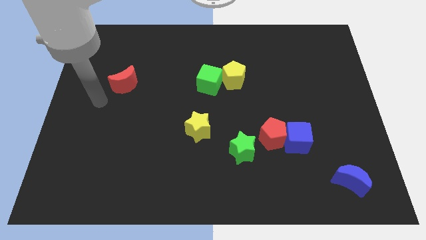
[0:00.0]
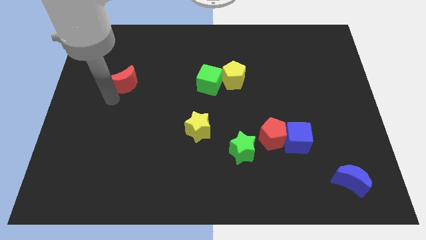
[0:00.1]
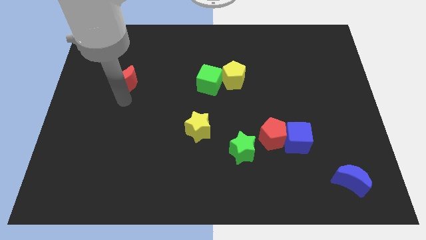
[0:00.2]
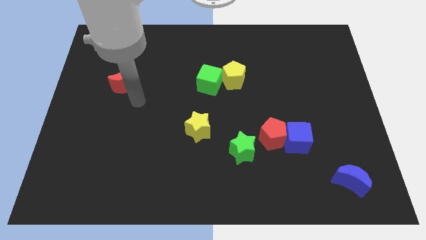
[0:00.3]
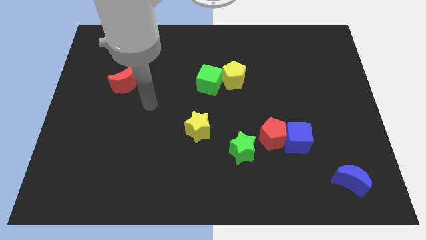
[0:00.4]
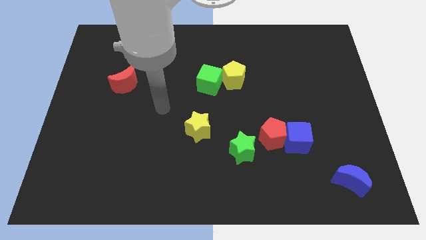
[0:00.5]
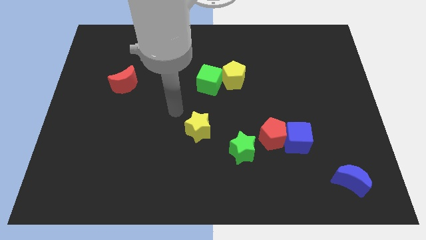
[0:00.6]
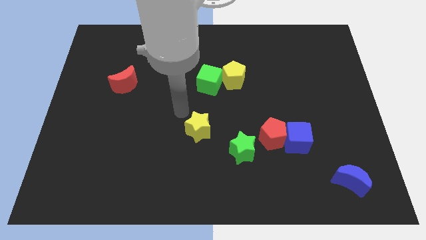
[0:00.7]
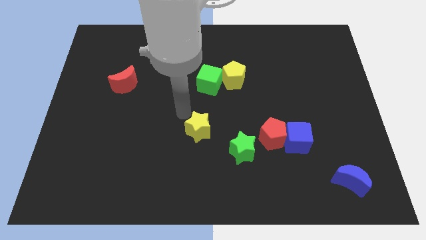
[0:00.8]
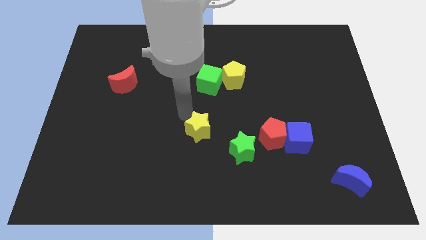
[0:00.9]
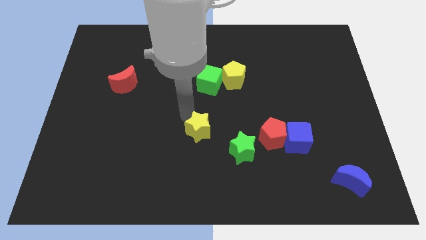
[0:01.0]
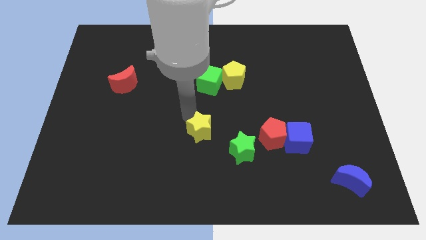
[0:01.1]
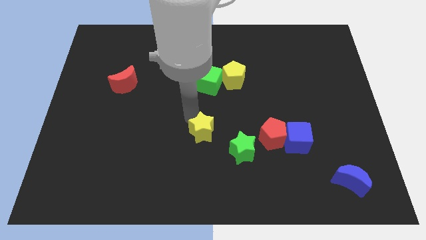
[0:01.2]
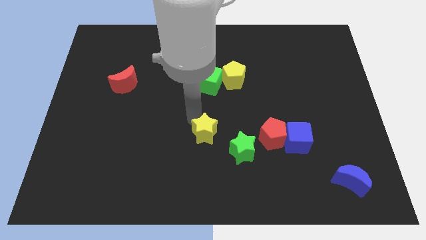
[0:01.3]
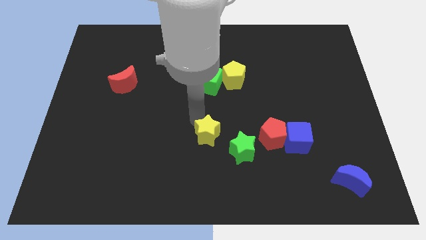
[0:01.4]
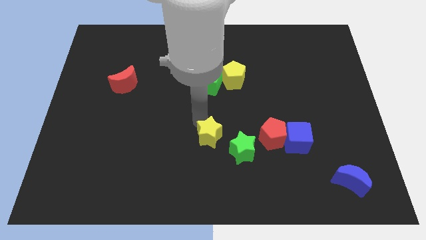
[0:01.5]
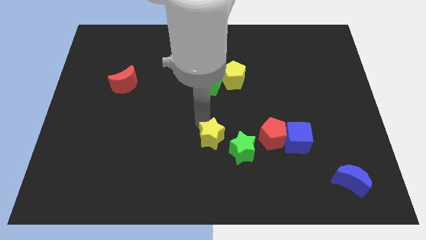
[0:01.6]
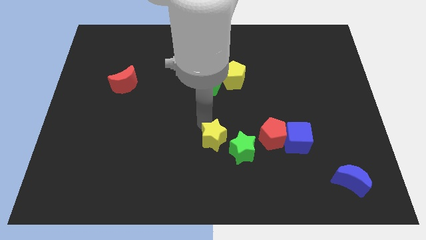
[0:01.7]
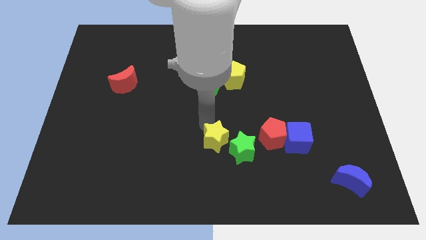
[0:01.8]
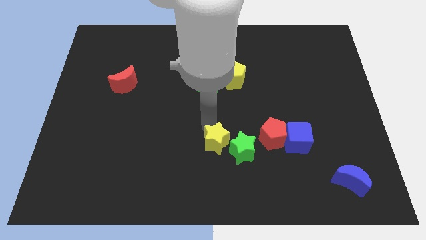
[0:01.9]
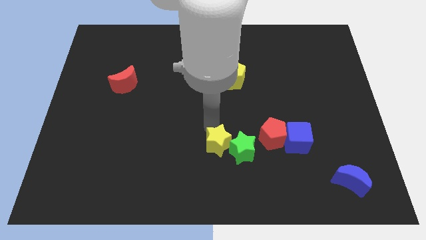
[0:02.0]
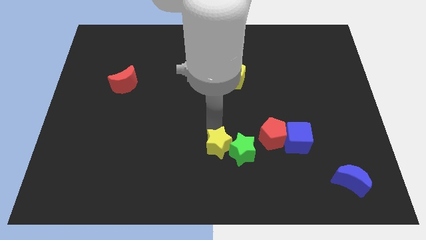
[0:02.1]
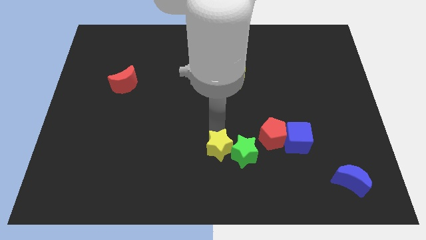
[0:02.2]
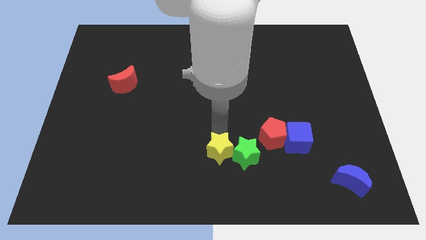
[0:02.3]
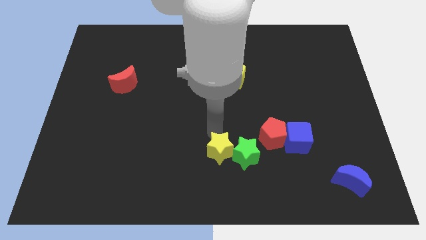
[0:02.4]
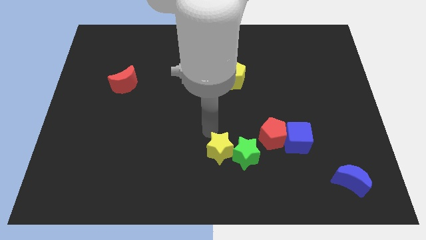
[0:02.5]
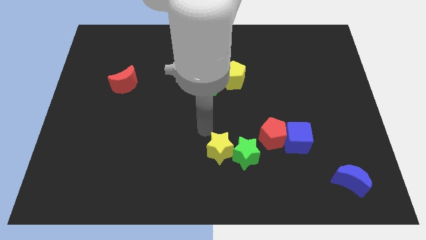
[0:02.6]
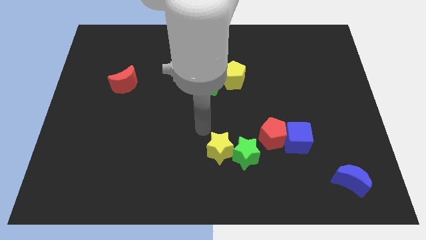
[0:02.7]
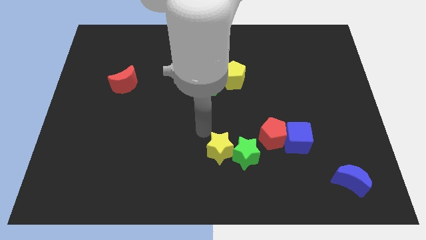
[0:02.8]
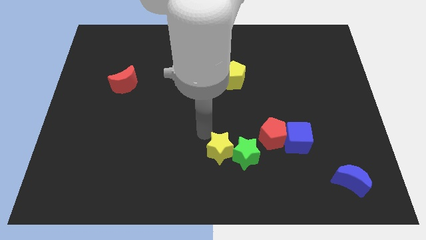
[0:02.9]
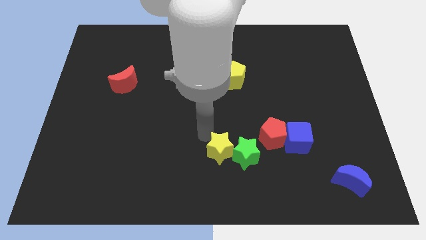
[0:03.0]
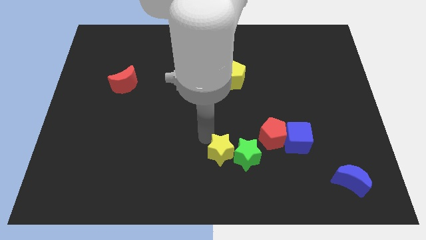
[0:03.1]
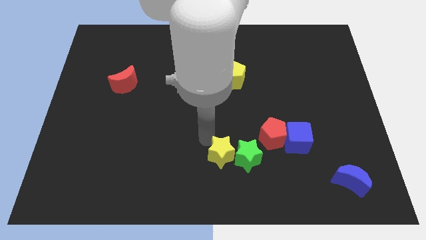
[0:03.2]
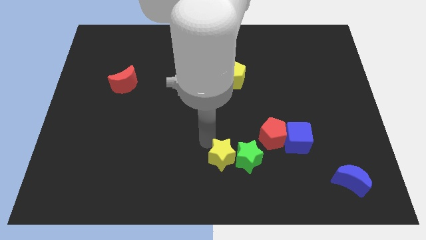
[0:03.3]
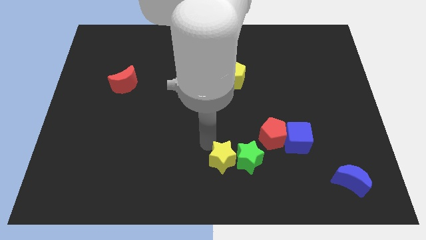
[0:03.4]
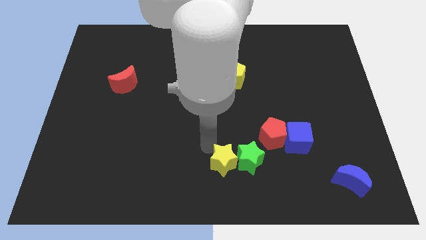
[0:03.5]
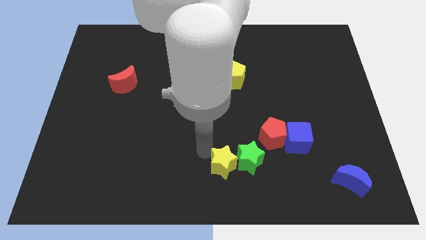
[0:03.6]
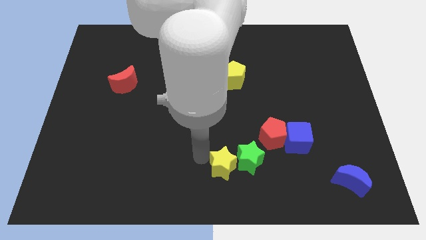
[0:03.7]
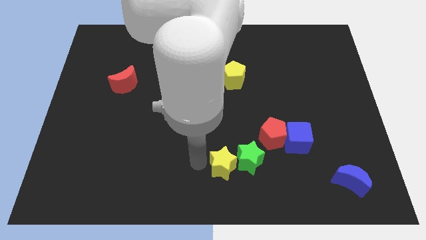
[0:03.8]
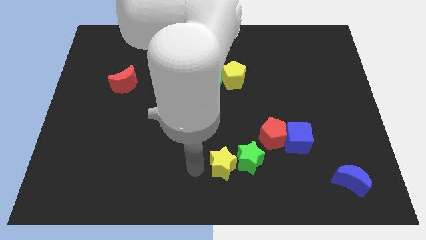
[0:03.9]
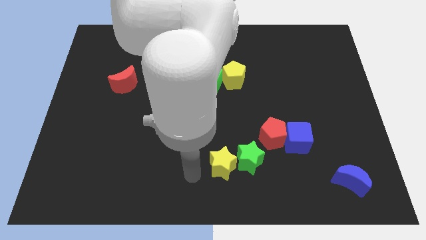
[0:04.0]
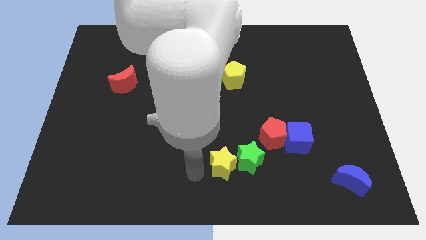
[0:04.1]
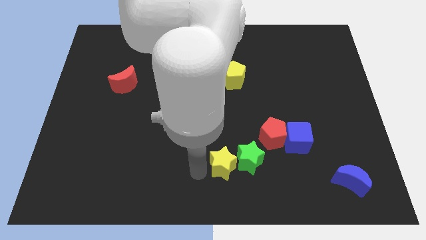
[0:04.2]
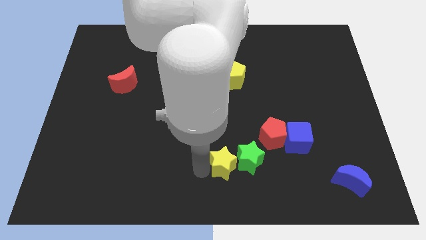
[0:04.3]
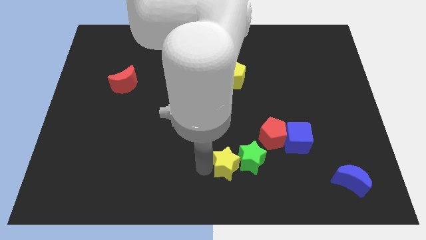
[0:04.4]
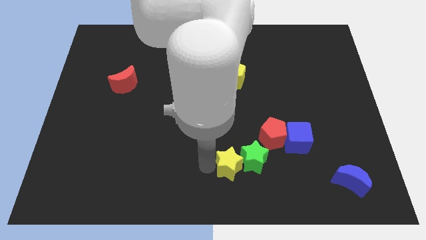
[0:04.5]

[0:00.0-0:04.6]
put the yellow star to the bottom left side of the red pentagon

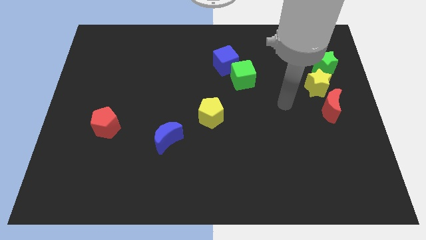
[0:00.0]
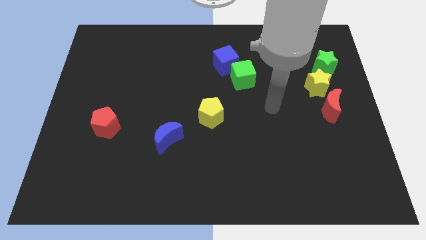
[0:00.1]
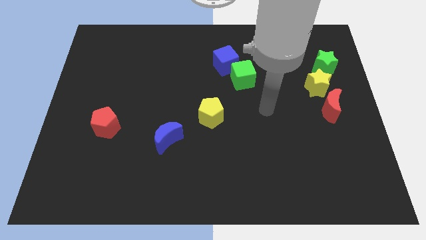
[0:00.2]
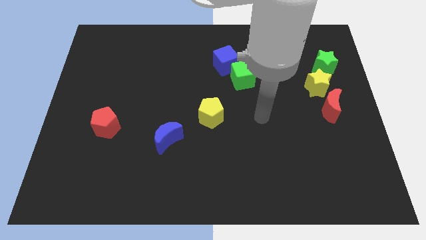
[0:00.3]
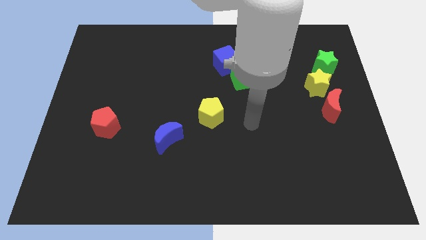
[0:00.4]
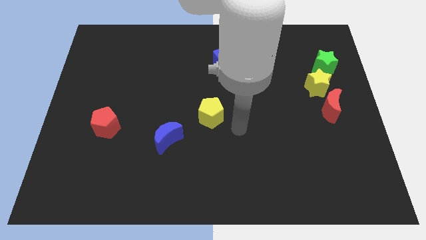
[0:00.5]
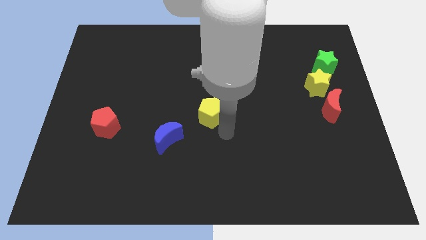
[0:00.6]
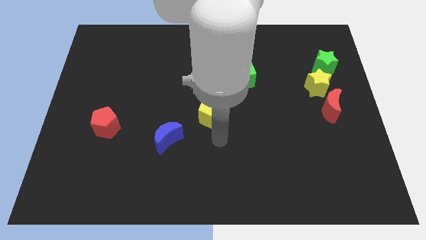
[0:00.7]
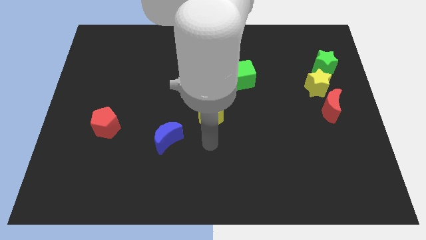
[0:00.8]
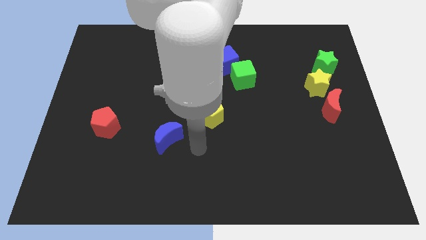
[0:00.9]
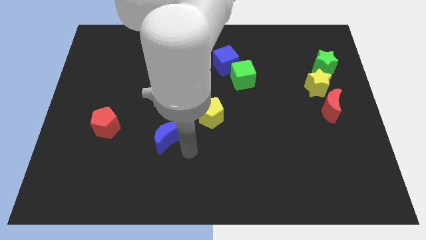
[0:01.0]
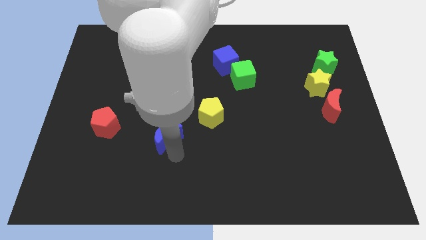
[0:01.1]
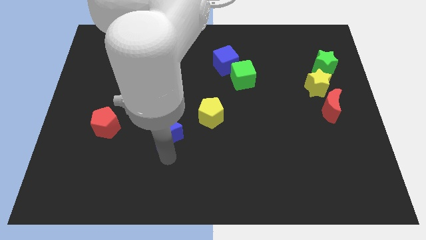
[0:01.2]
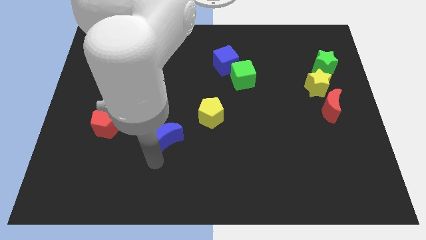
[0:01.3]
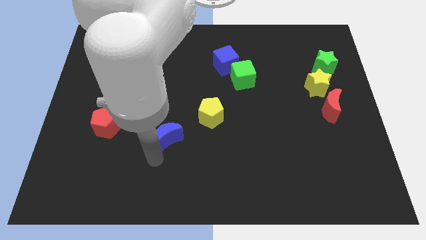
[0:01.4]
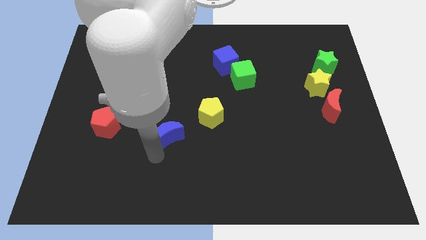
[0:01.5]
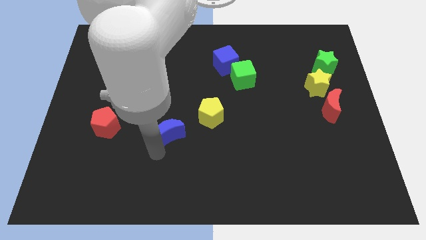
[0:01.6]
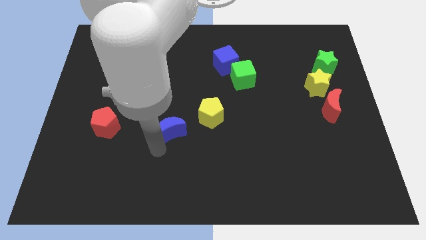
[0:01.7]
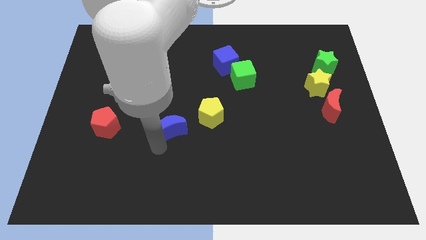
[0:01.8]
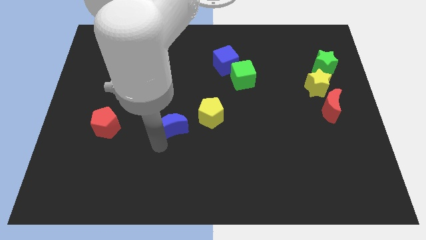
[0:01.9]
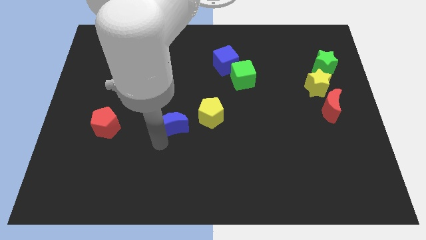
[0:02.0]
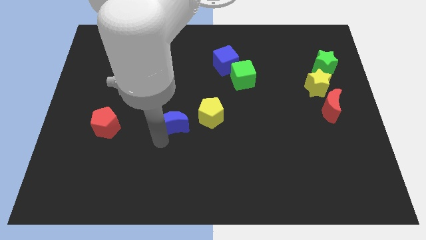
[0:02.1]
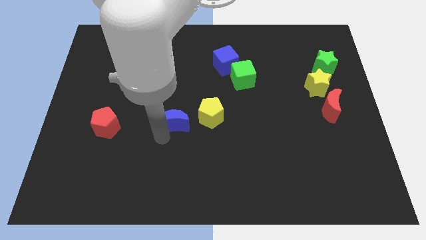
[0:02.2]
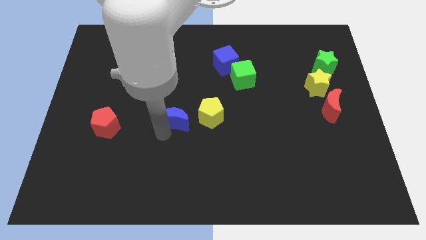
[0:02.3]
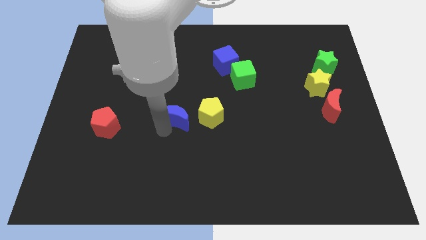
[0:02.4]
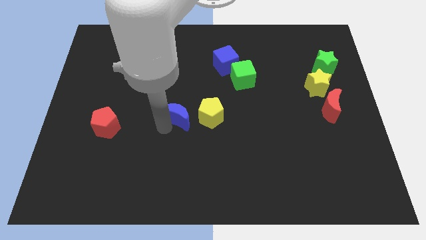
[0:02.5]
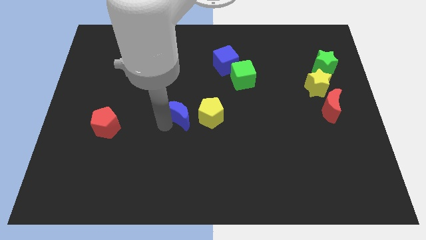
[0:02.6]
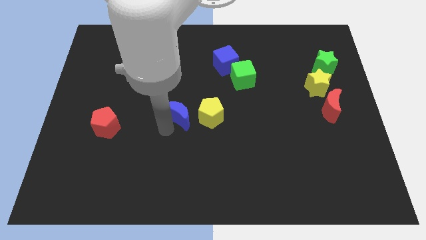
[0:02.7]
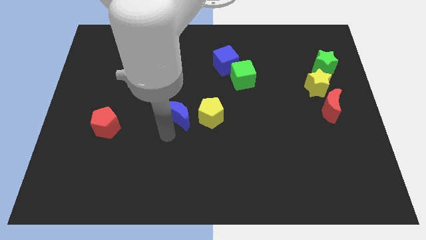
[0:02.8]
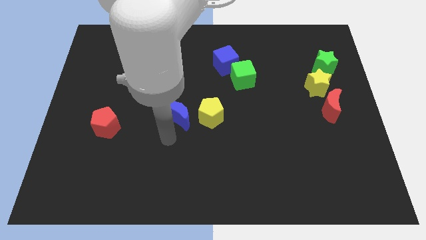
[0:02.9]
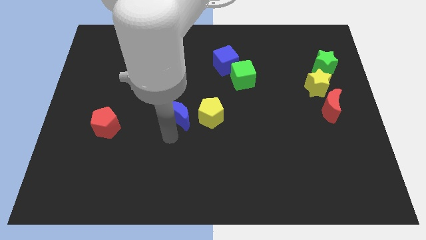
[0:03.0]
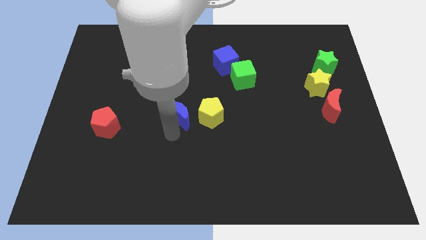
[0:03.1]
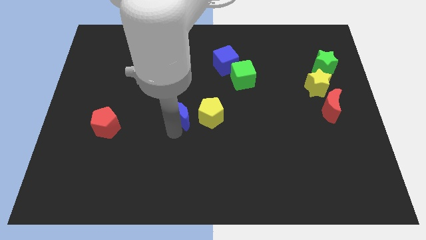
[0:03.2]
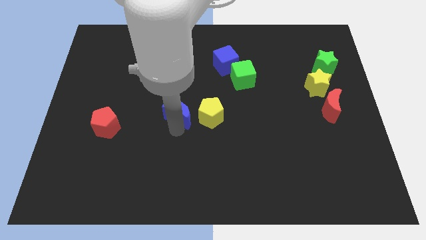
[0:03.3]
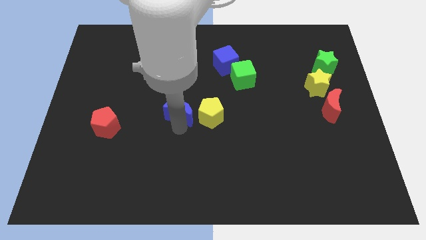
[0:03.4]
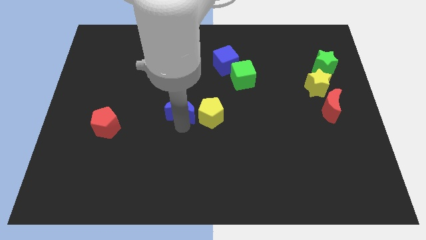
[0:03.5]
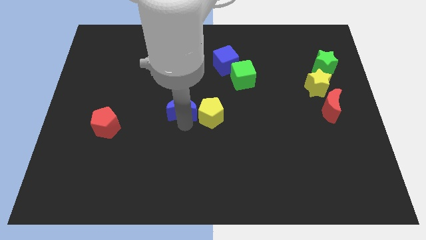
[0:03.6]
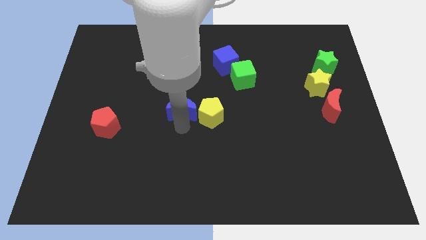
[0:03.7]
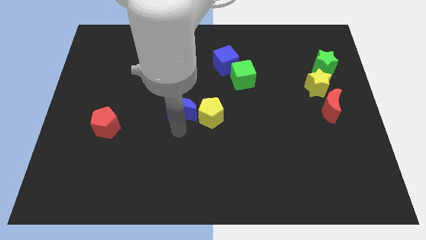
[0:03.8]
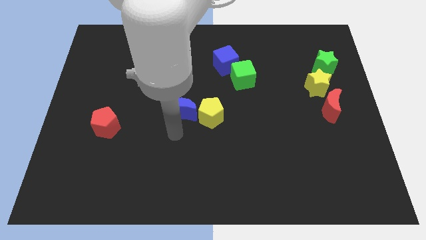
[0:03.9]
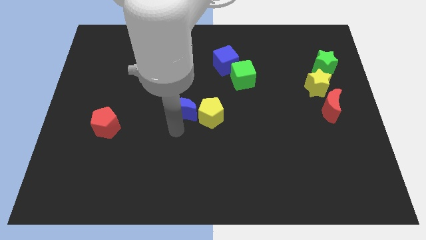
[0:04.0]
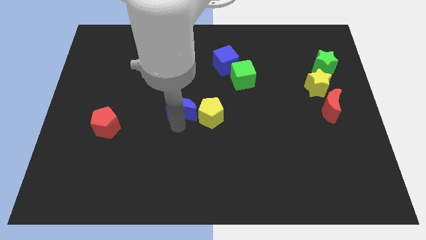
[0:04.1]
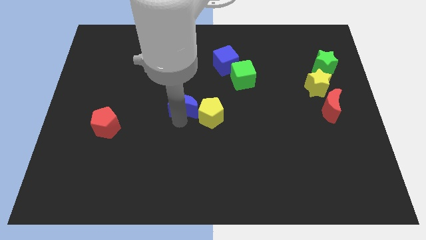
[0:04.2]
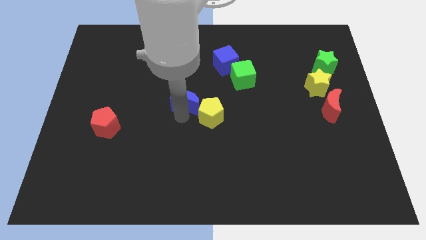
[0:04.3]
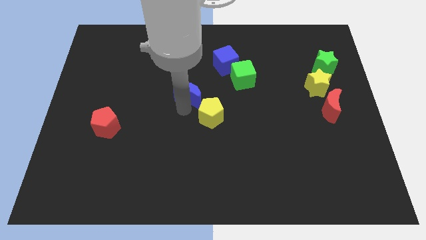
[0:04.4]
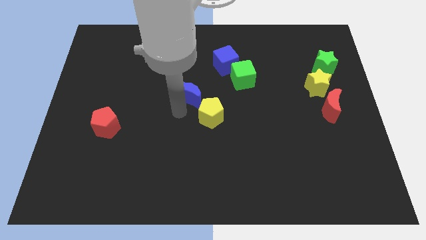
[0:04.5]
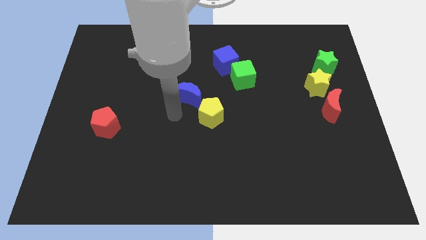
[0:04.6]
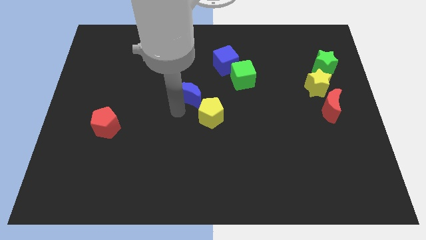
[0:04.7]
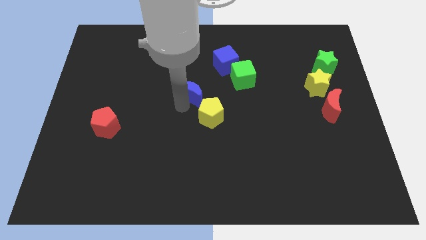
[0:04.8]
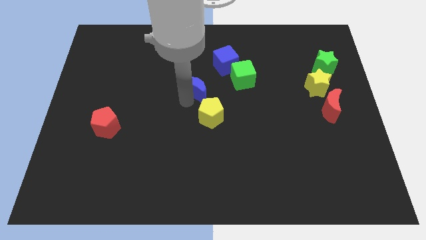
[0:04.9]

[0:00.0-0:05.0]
put the blue moon to the bottom left side of the blue cube
